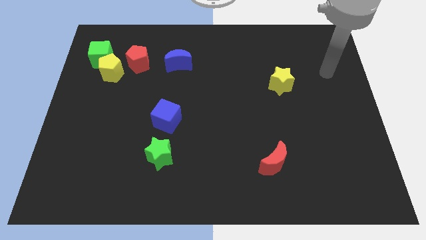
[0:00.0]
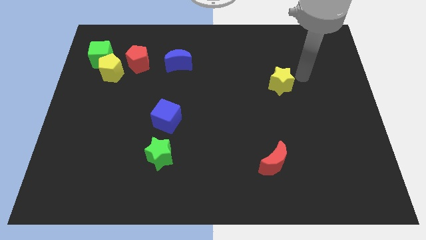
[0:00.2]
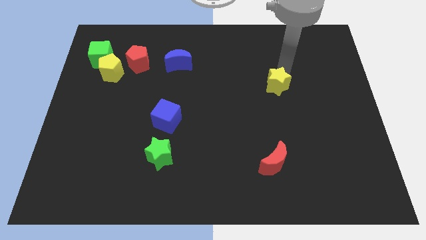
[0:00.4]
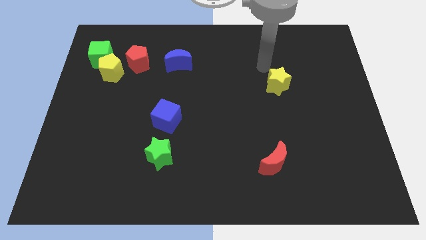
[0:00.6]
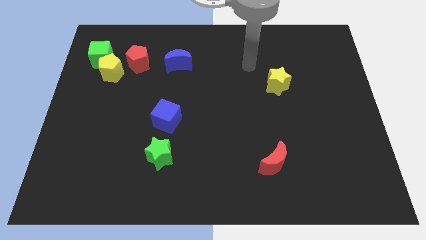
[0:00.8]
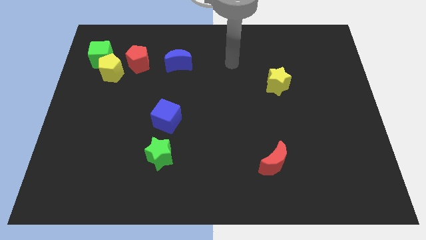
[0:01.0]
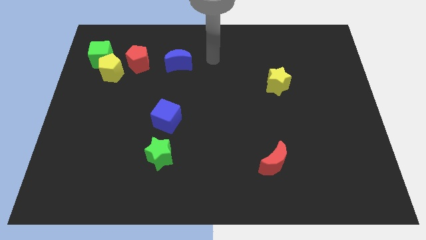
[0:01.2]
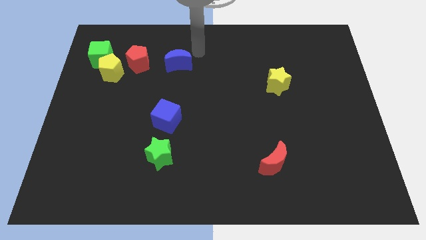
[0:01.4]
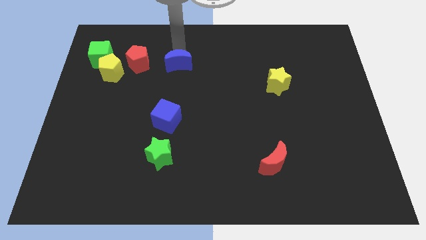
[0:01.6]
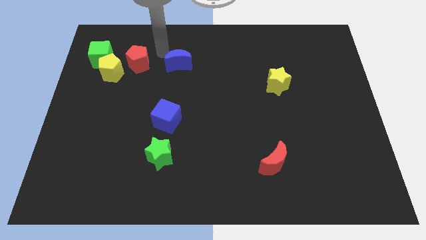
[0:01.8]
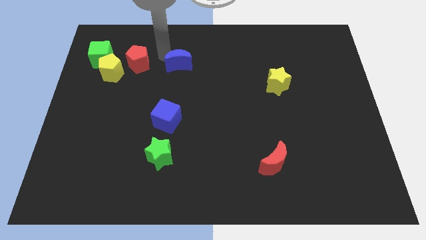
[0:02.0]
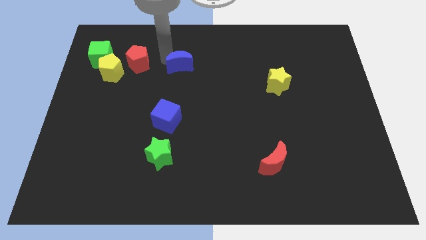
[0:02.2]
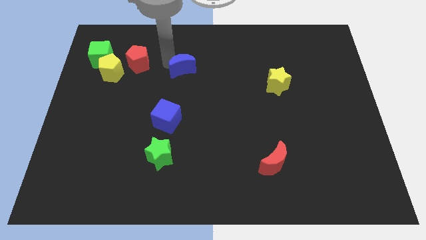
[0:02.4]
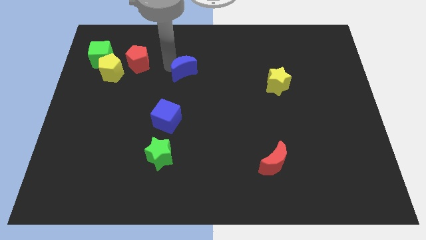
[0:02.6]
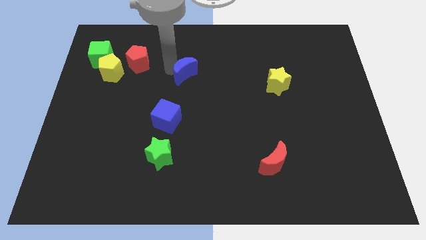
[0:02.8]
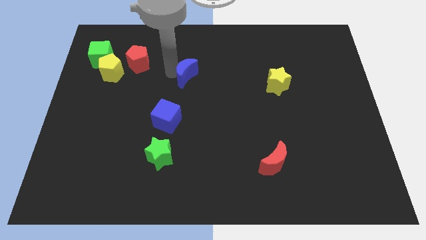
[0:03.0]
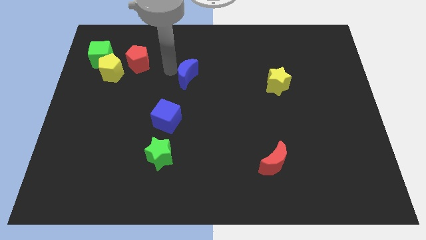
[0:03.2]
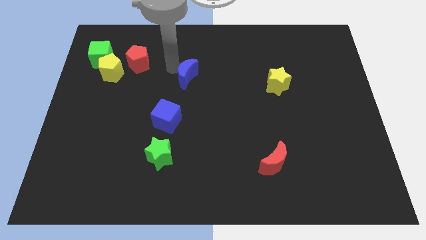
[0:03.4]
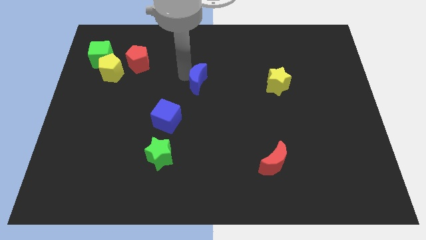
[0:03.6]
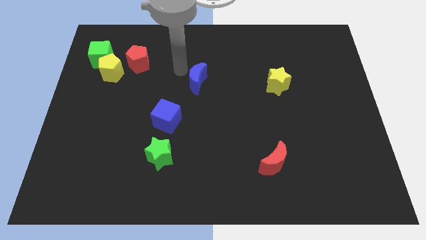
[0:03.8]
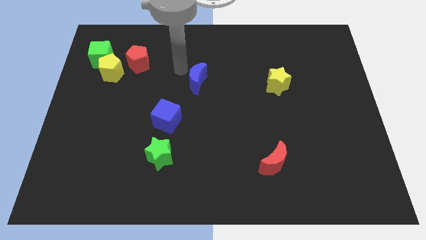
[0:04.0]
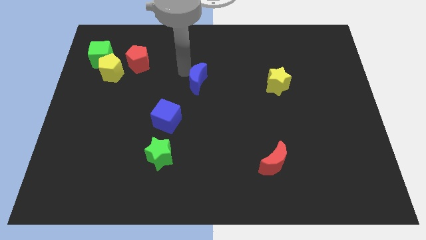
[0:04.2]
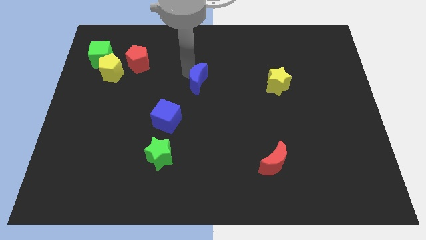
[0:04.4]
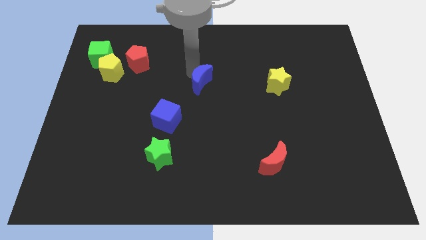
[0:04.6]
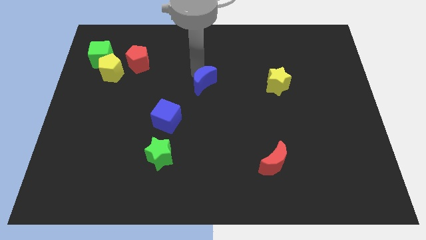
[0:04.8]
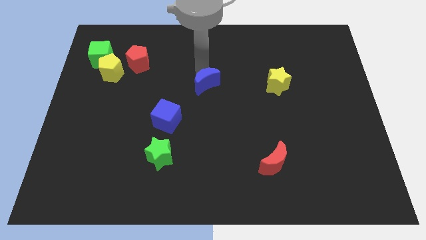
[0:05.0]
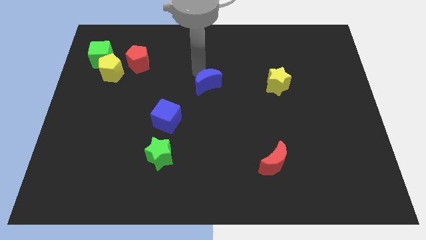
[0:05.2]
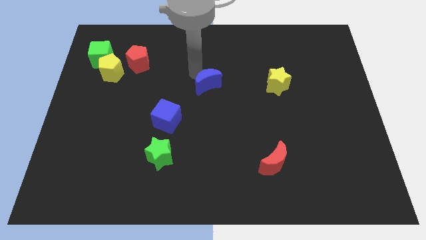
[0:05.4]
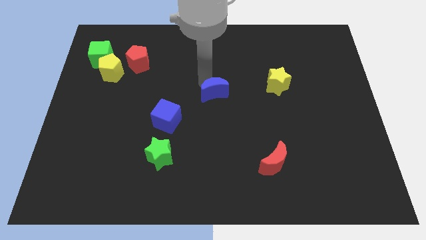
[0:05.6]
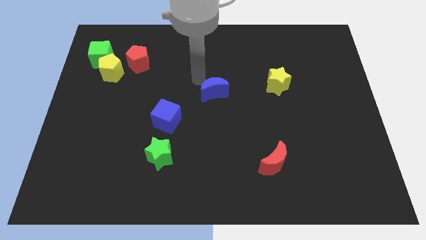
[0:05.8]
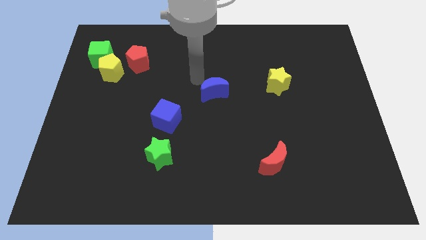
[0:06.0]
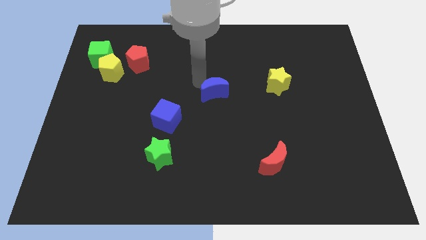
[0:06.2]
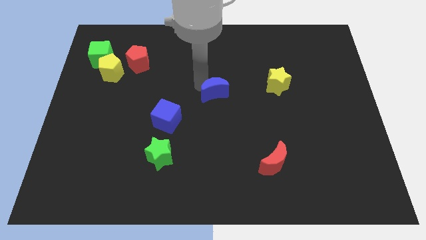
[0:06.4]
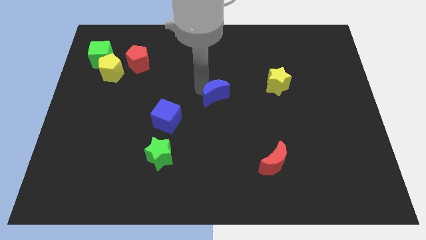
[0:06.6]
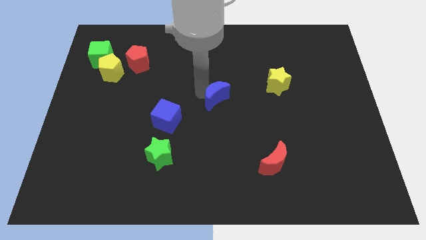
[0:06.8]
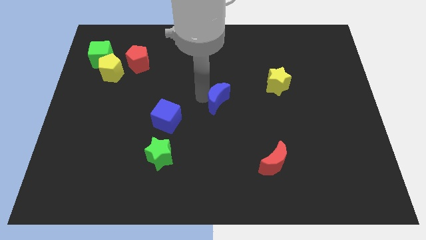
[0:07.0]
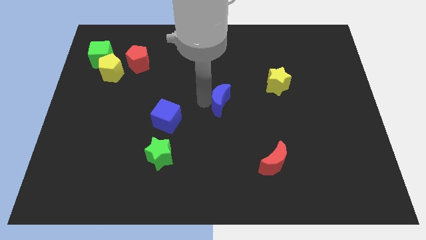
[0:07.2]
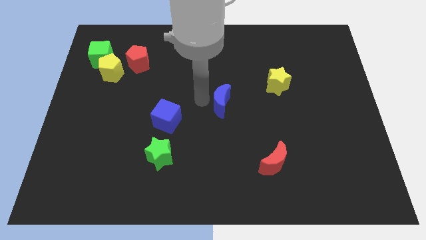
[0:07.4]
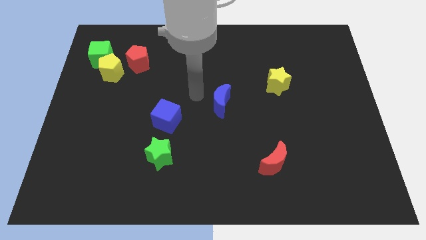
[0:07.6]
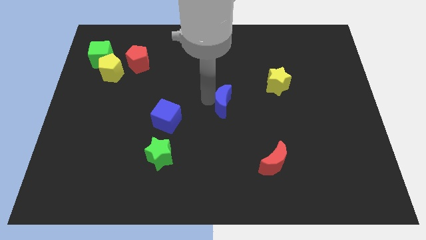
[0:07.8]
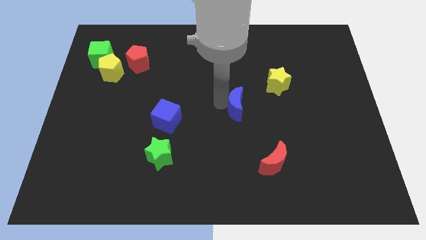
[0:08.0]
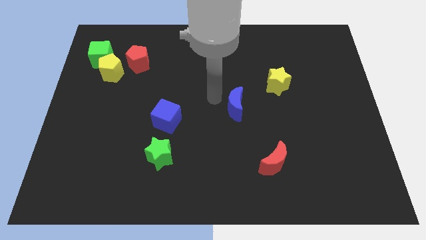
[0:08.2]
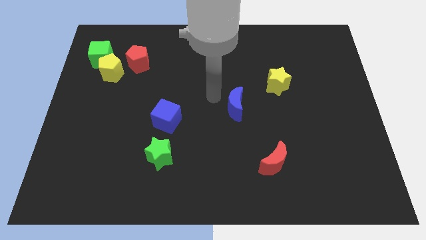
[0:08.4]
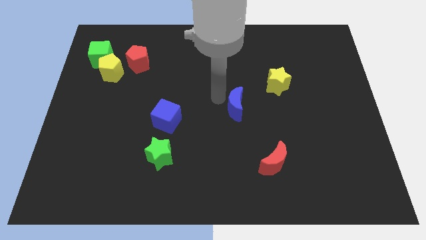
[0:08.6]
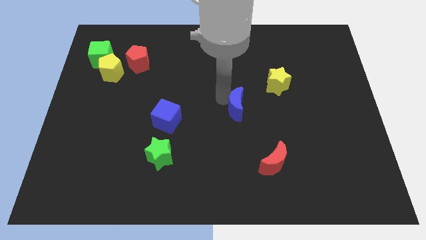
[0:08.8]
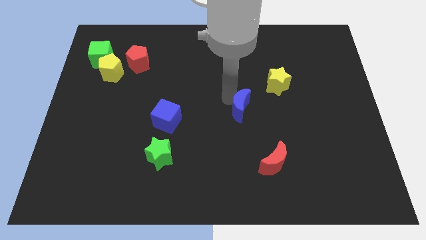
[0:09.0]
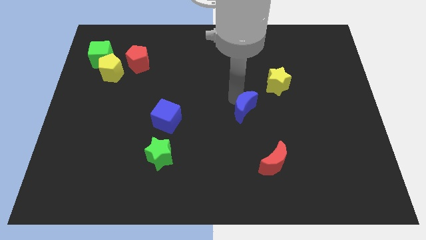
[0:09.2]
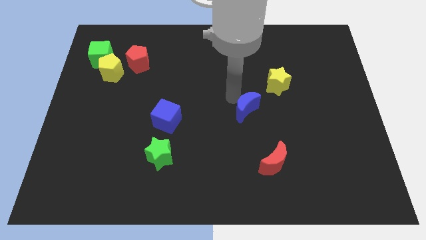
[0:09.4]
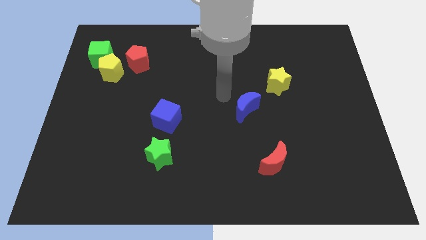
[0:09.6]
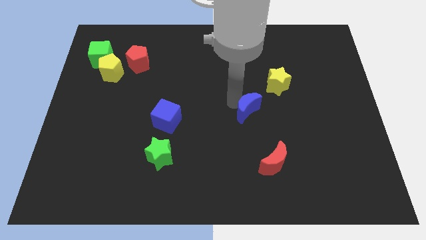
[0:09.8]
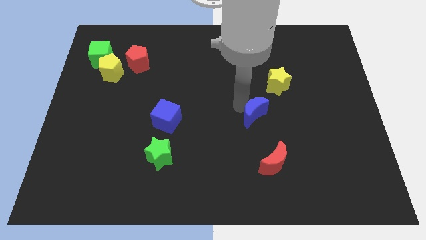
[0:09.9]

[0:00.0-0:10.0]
move the blue moon to the top of the red moon

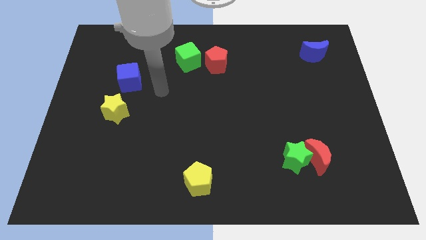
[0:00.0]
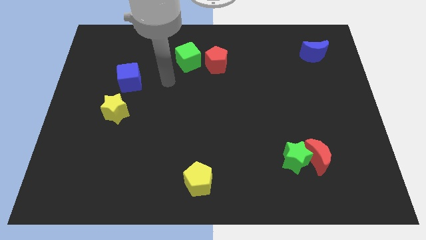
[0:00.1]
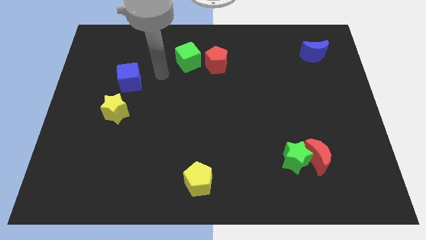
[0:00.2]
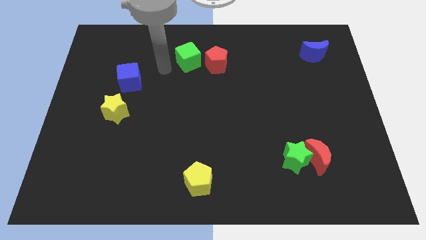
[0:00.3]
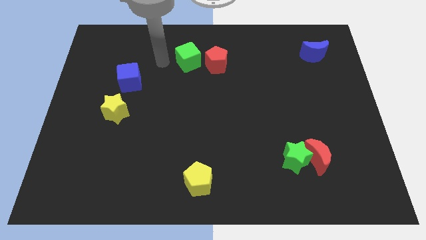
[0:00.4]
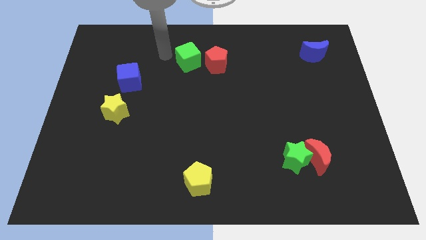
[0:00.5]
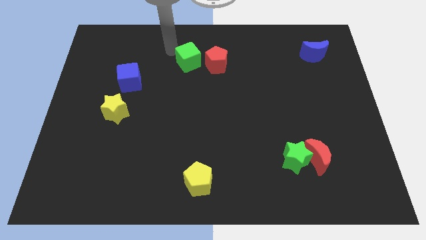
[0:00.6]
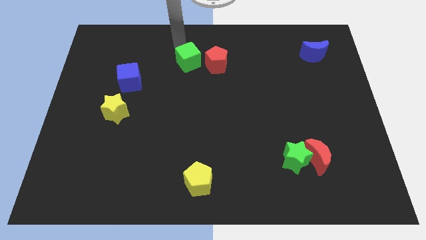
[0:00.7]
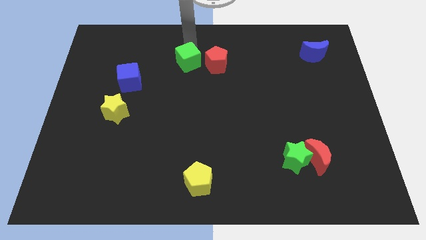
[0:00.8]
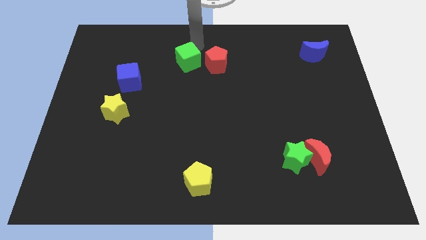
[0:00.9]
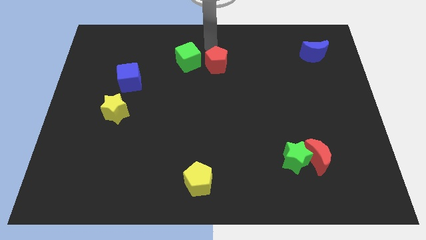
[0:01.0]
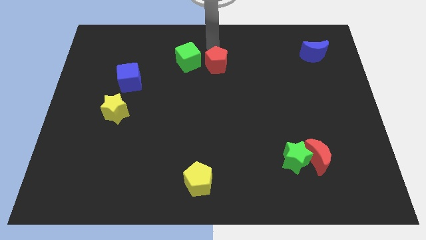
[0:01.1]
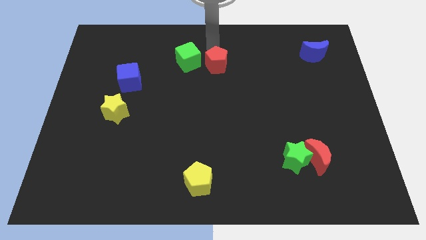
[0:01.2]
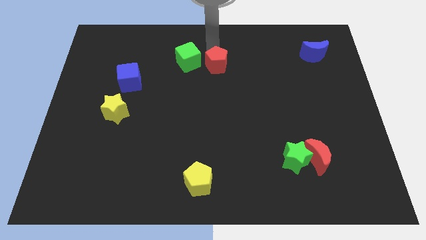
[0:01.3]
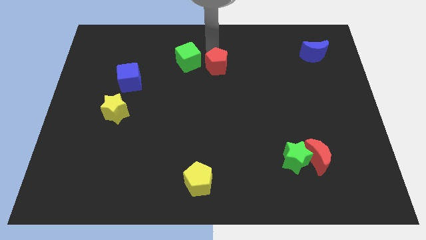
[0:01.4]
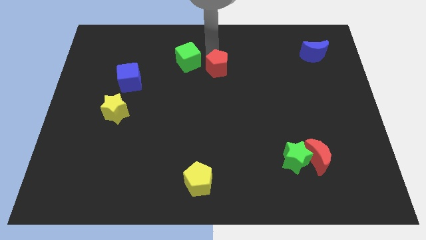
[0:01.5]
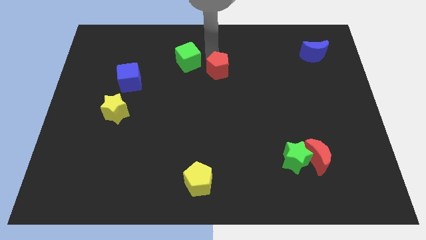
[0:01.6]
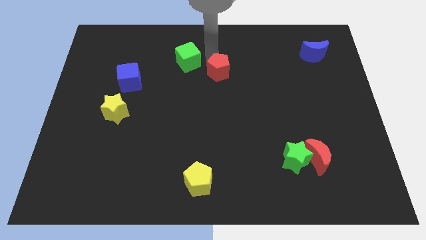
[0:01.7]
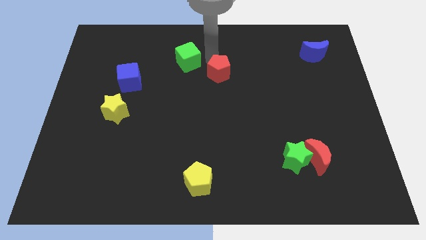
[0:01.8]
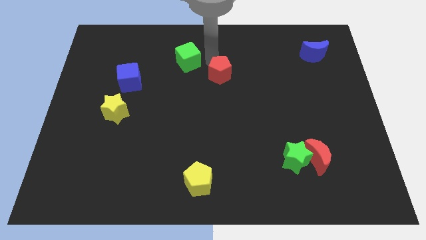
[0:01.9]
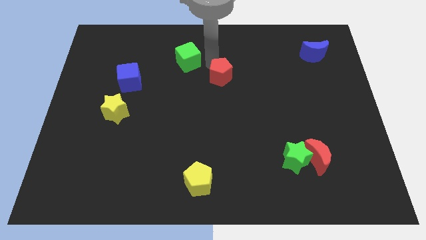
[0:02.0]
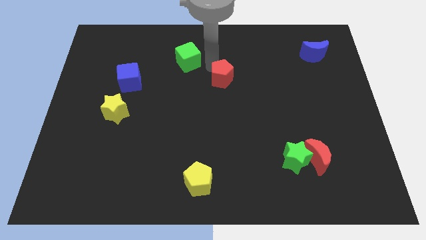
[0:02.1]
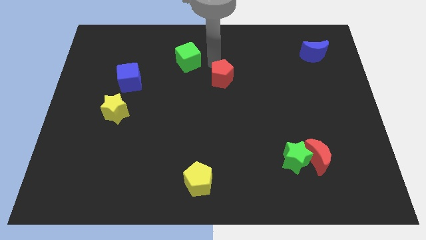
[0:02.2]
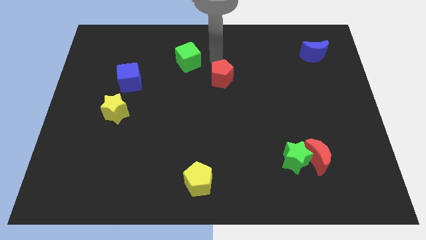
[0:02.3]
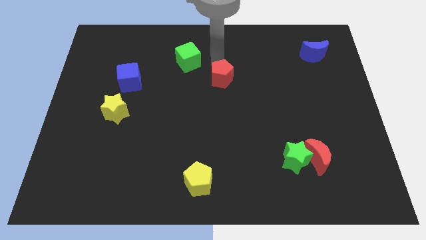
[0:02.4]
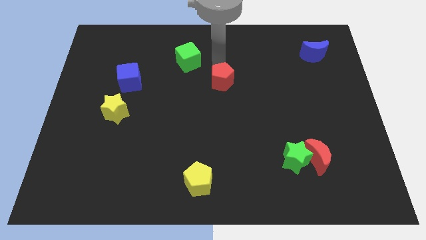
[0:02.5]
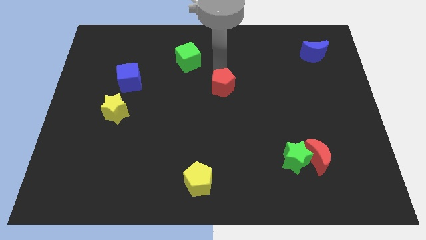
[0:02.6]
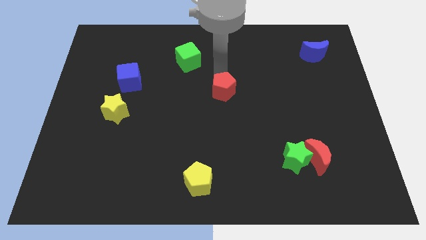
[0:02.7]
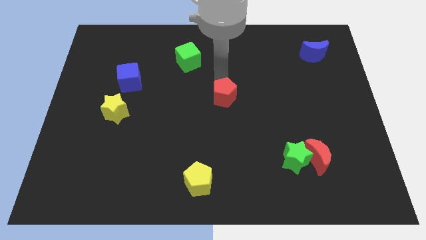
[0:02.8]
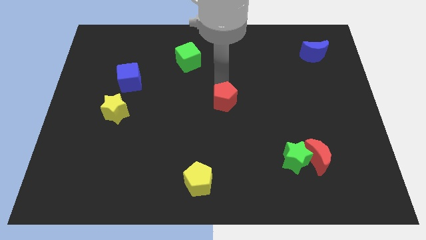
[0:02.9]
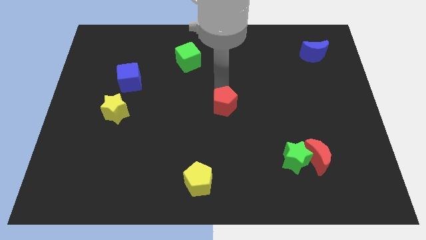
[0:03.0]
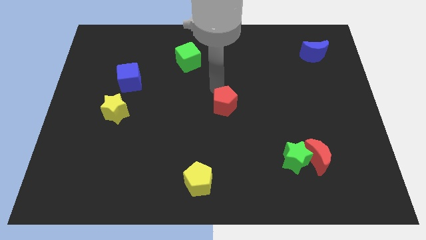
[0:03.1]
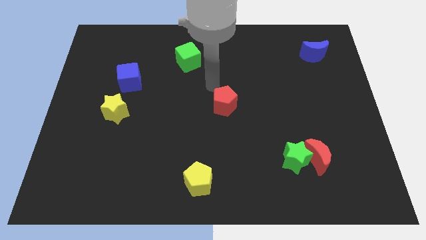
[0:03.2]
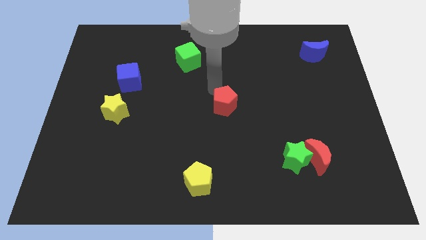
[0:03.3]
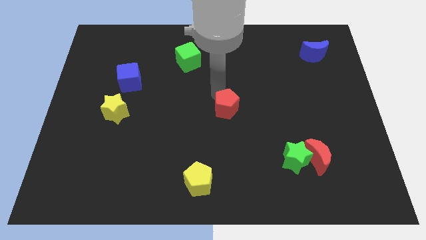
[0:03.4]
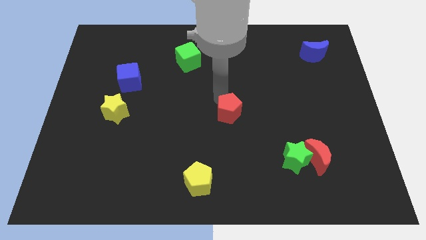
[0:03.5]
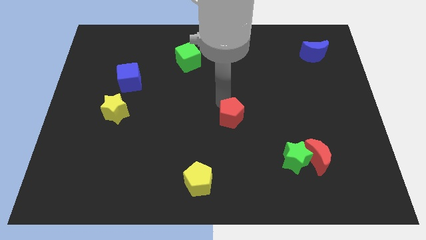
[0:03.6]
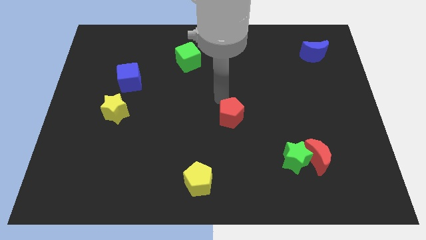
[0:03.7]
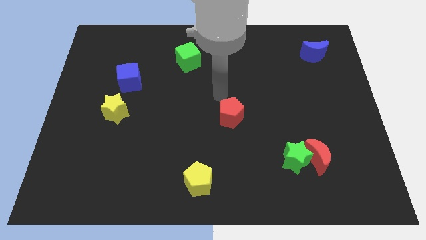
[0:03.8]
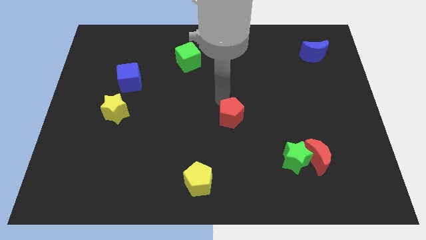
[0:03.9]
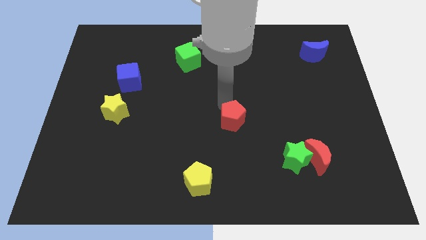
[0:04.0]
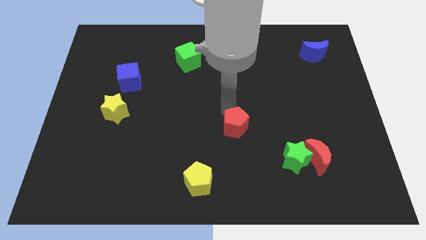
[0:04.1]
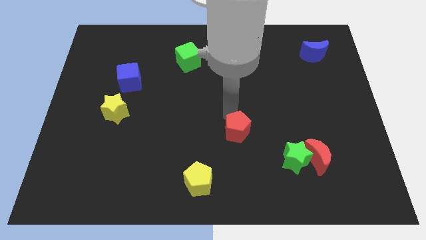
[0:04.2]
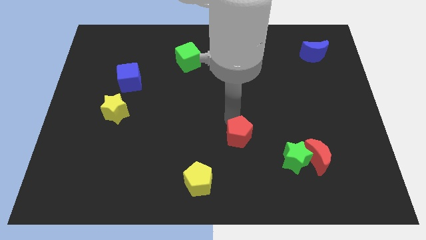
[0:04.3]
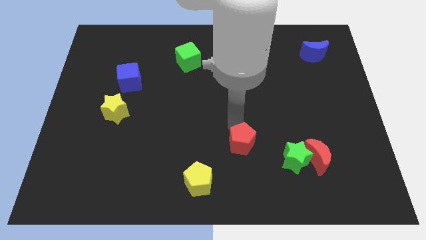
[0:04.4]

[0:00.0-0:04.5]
slide the red pentagon to the left of the green star
